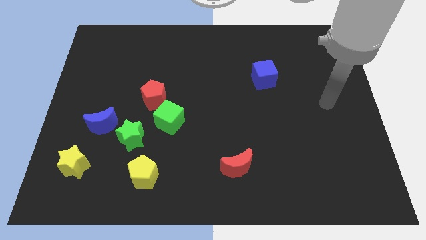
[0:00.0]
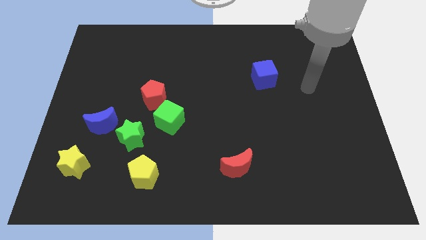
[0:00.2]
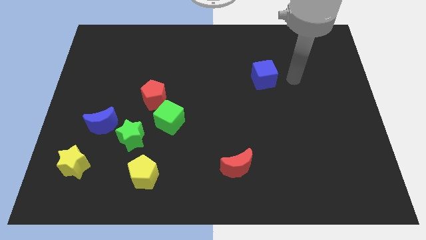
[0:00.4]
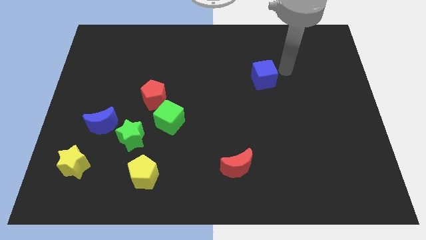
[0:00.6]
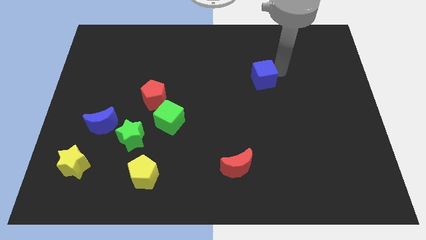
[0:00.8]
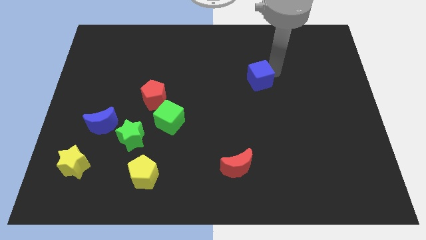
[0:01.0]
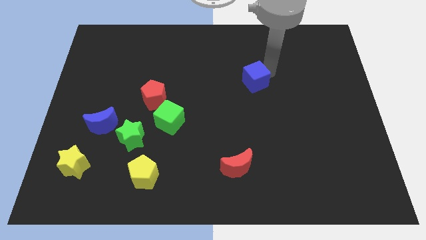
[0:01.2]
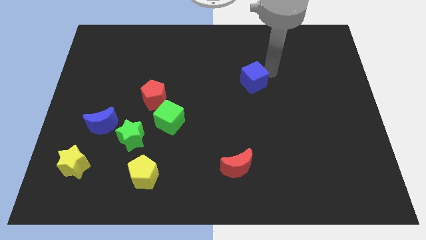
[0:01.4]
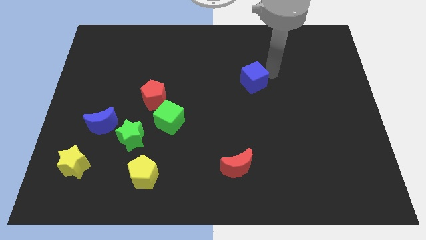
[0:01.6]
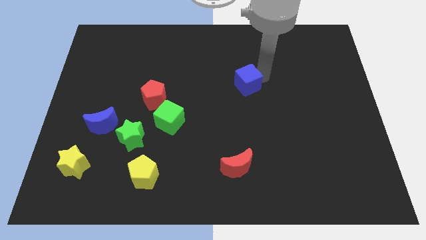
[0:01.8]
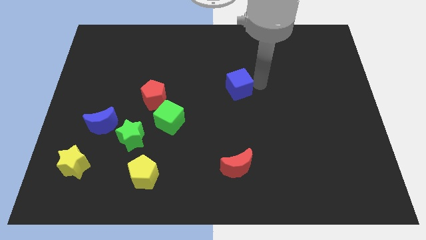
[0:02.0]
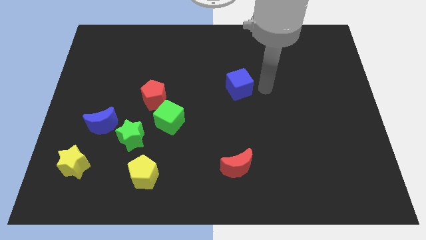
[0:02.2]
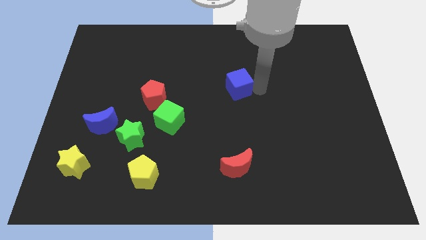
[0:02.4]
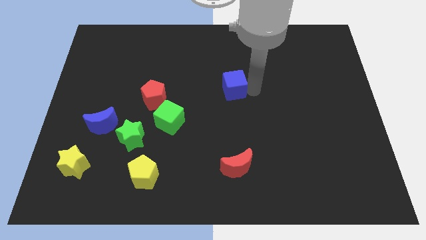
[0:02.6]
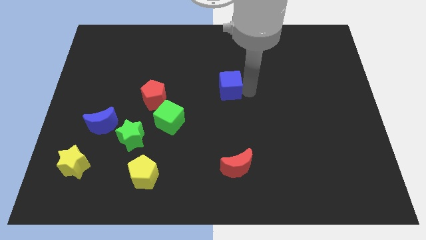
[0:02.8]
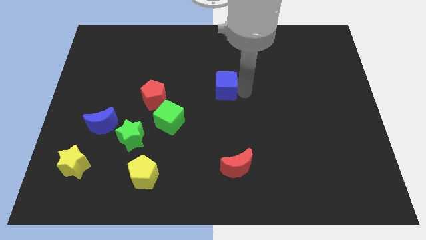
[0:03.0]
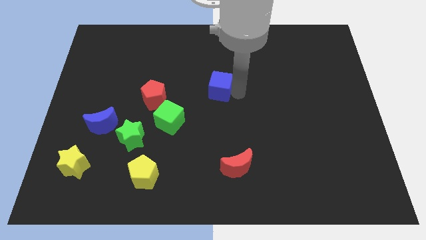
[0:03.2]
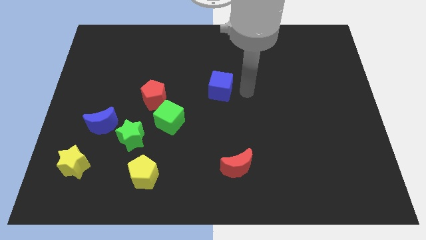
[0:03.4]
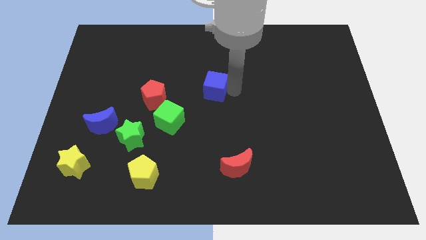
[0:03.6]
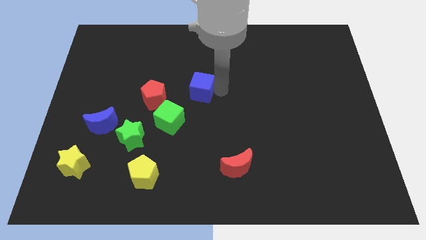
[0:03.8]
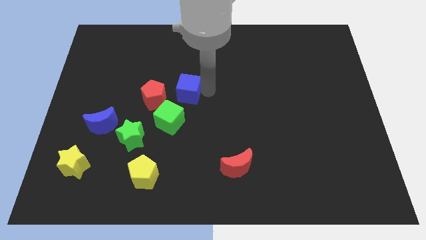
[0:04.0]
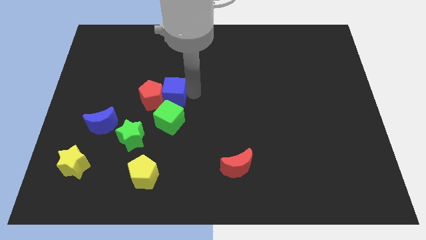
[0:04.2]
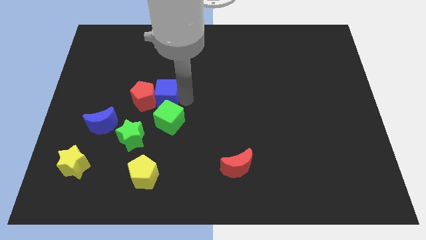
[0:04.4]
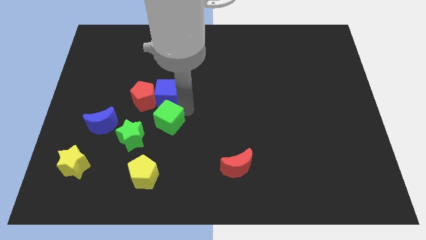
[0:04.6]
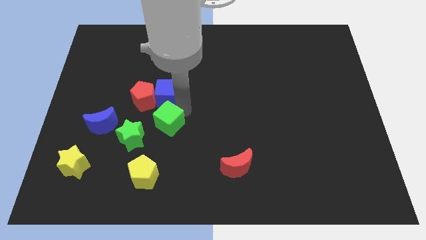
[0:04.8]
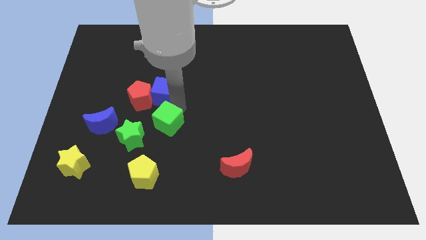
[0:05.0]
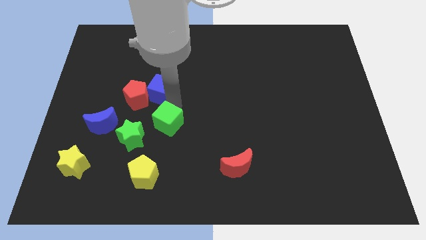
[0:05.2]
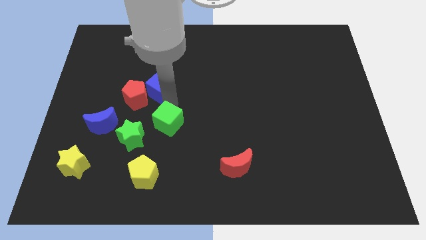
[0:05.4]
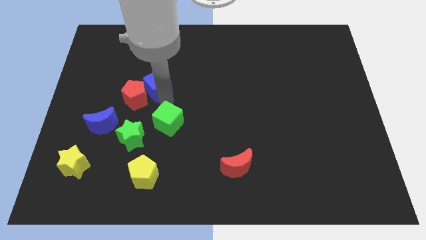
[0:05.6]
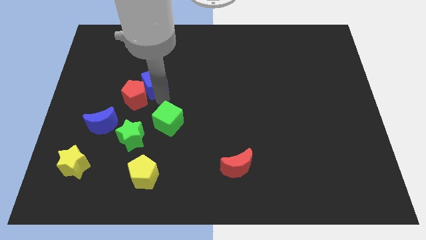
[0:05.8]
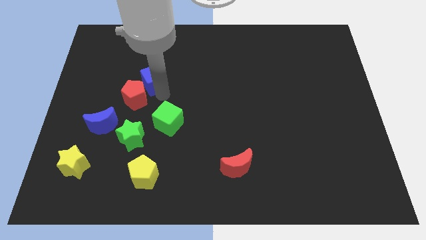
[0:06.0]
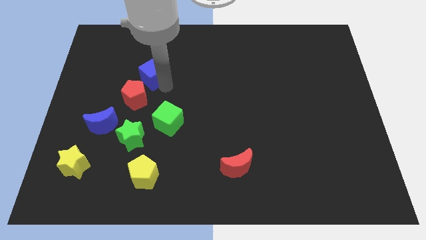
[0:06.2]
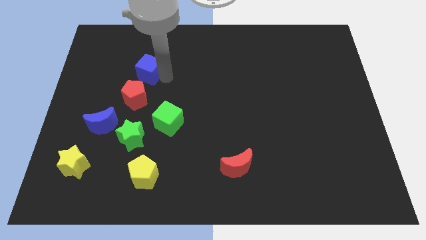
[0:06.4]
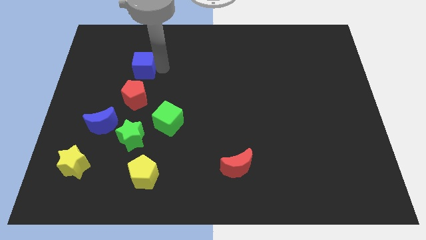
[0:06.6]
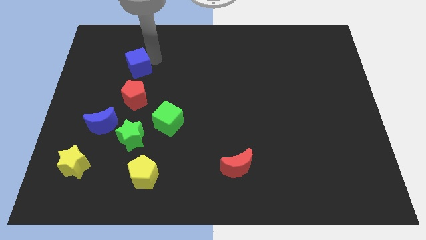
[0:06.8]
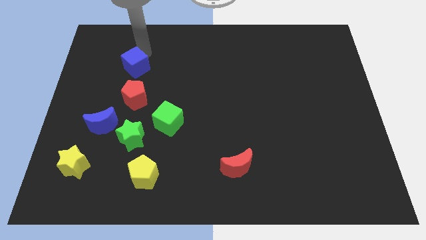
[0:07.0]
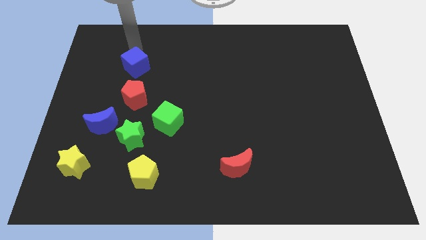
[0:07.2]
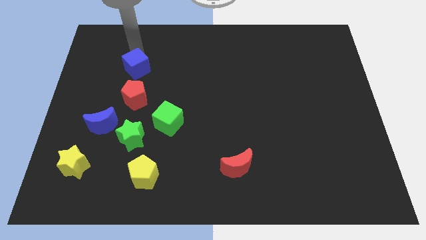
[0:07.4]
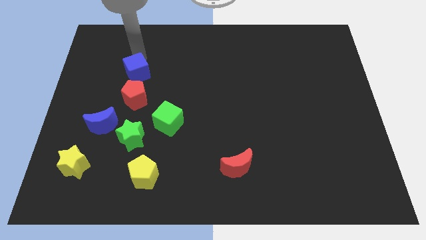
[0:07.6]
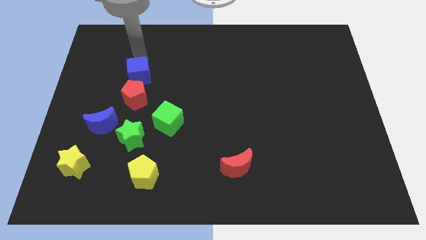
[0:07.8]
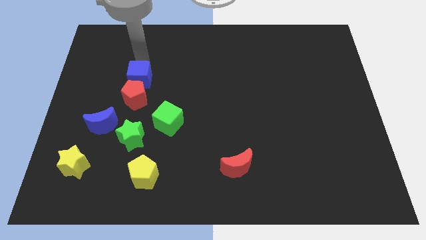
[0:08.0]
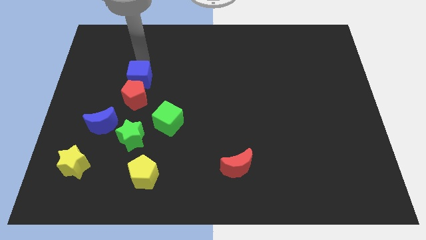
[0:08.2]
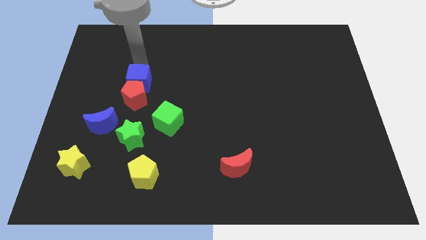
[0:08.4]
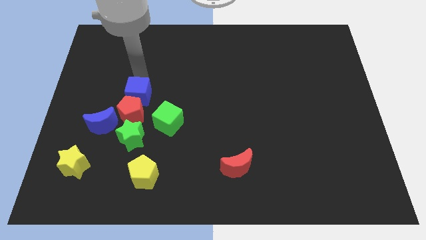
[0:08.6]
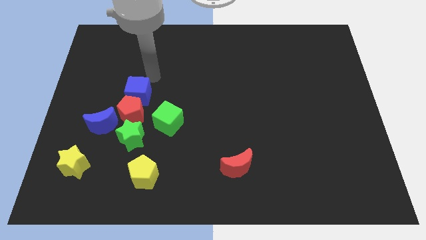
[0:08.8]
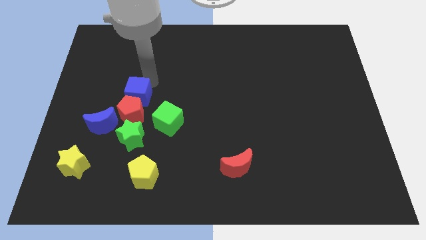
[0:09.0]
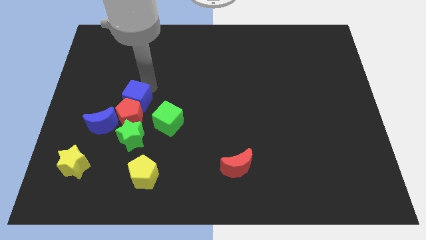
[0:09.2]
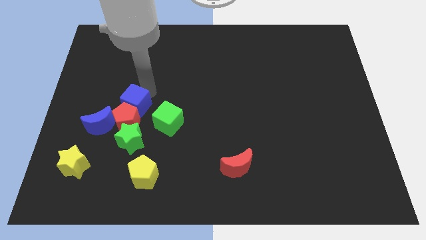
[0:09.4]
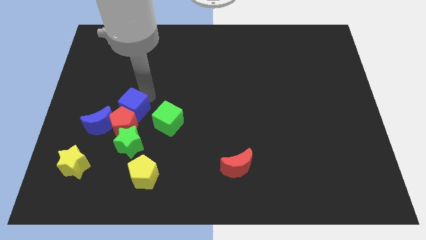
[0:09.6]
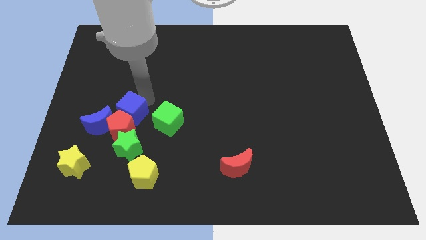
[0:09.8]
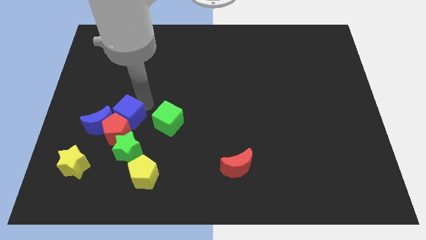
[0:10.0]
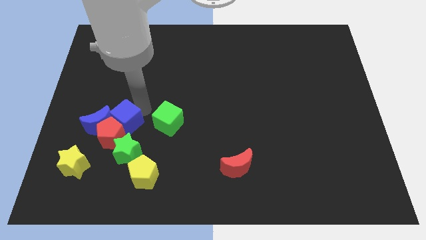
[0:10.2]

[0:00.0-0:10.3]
move the blue cube next to the blue moon

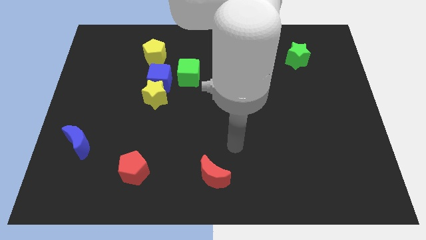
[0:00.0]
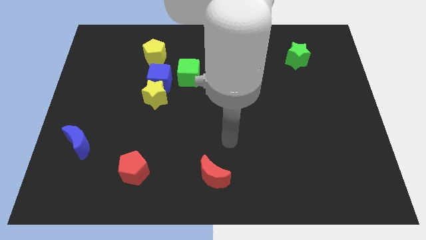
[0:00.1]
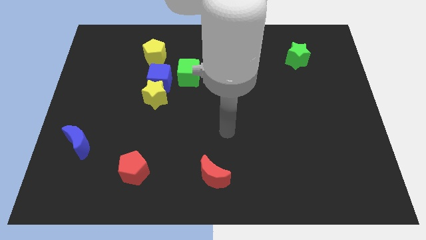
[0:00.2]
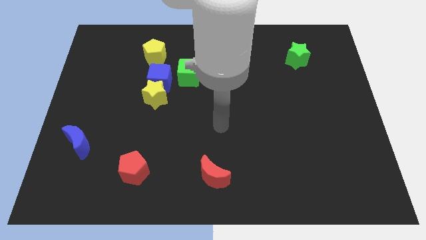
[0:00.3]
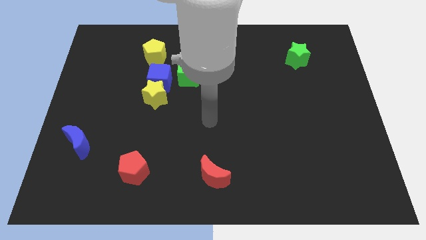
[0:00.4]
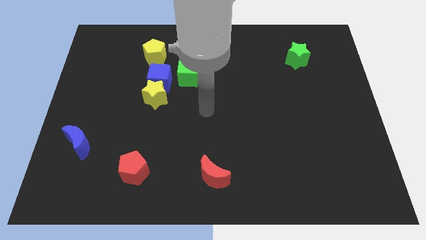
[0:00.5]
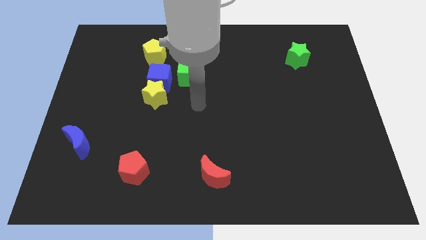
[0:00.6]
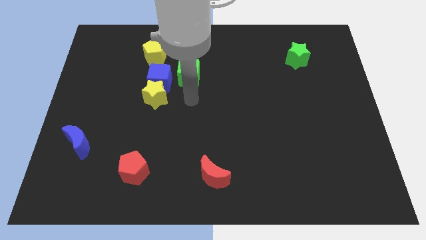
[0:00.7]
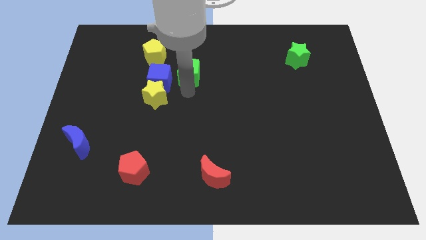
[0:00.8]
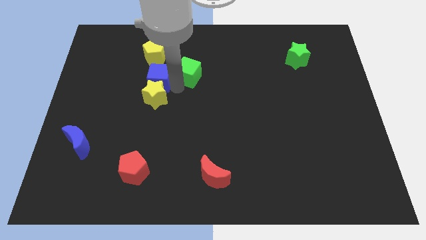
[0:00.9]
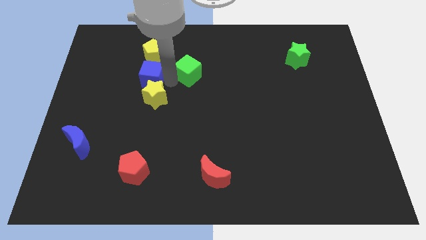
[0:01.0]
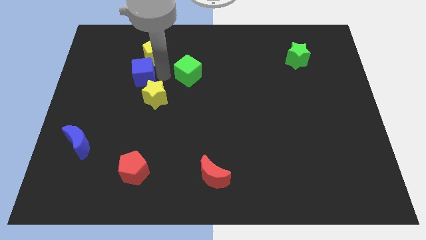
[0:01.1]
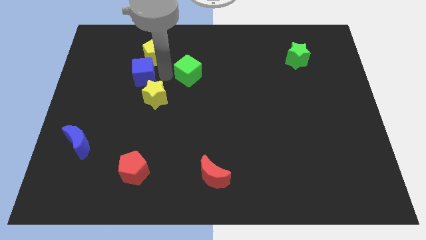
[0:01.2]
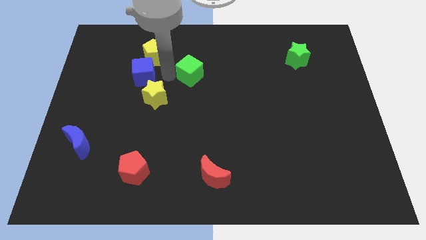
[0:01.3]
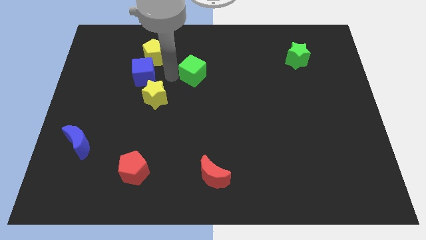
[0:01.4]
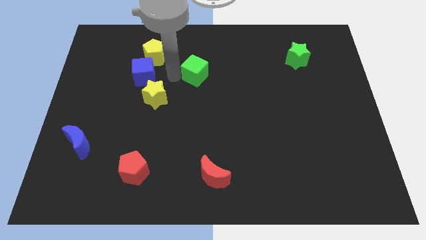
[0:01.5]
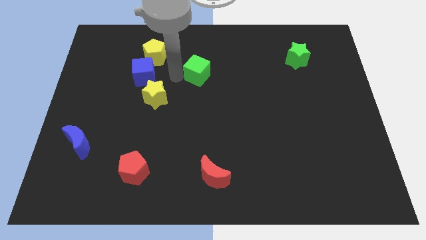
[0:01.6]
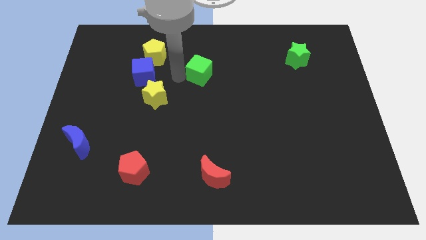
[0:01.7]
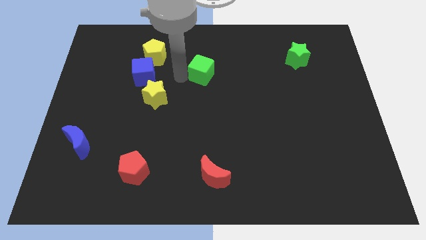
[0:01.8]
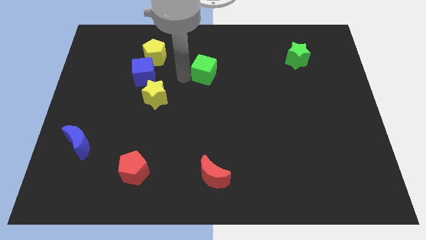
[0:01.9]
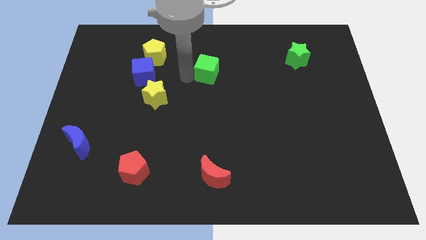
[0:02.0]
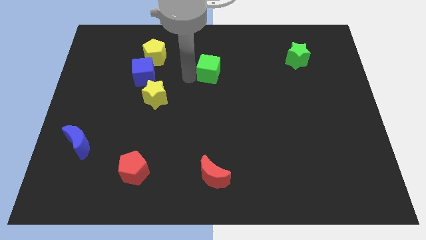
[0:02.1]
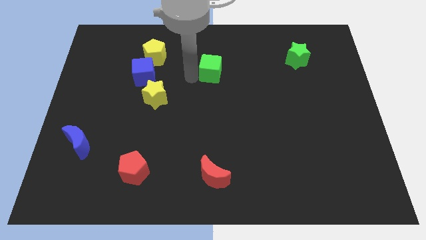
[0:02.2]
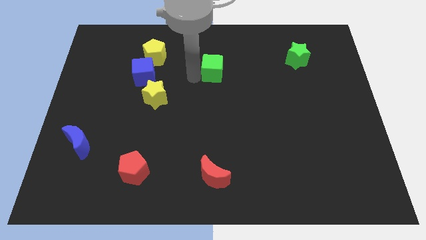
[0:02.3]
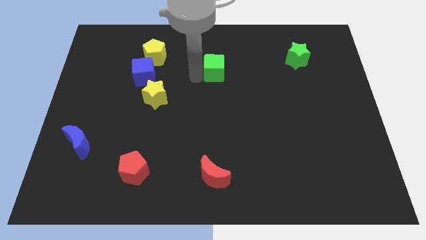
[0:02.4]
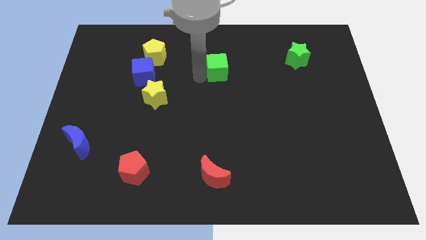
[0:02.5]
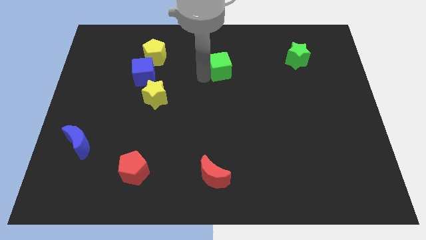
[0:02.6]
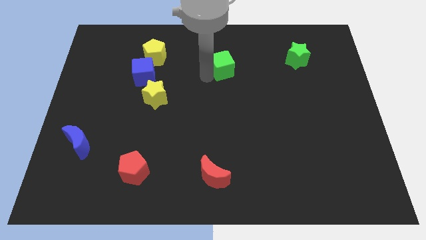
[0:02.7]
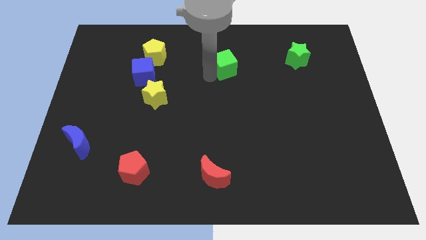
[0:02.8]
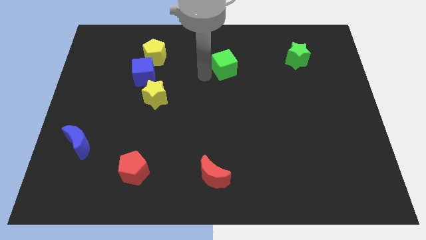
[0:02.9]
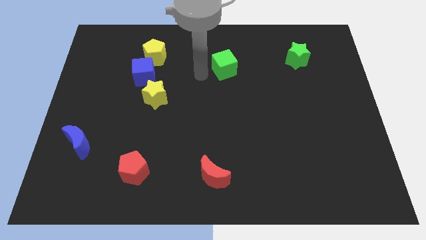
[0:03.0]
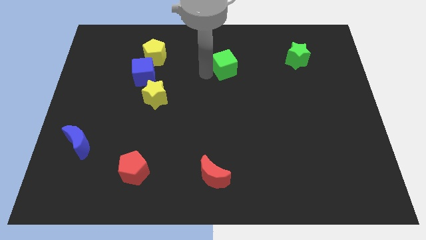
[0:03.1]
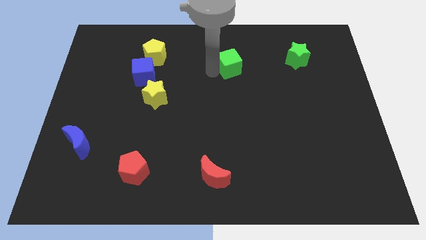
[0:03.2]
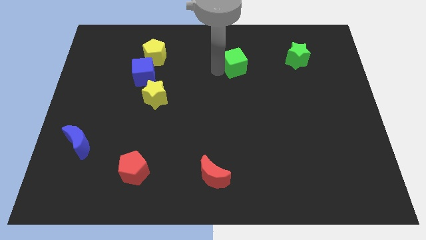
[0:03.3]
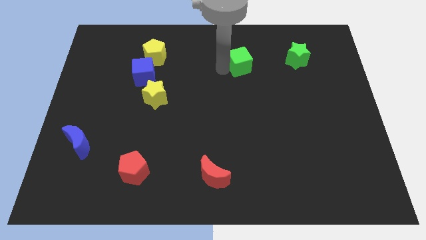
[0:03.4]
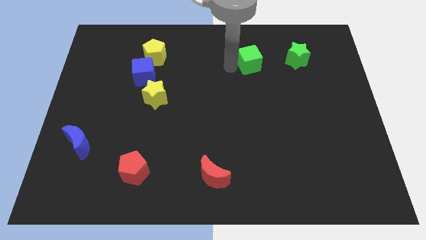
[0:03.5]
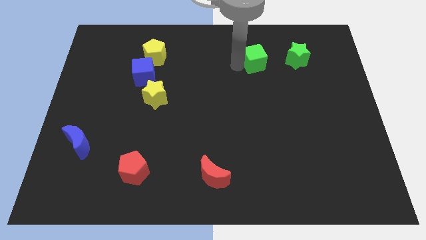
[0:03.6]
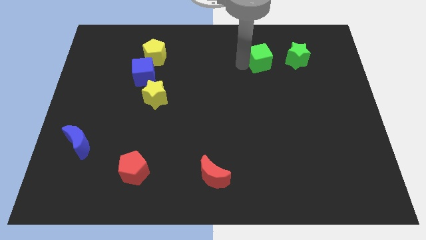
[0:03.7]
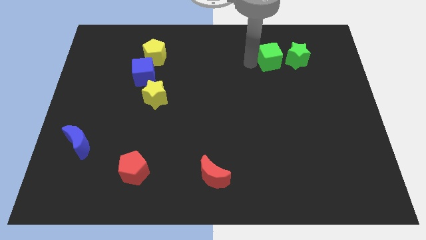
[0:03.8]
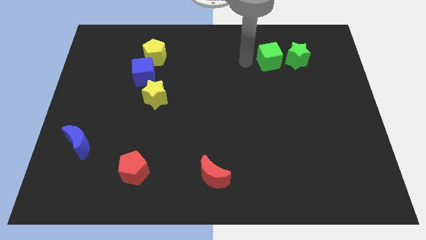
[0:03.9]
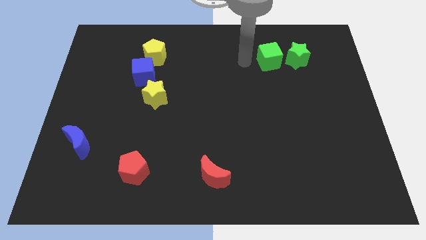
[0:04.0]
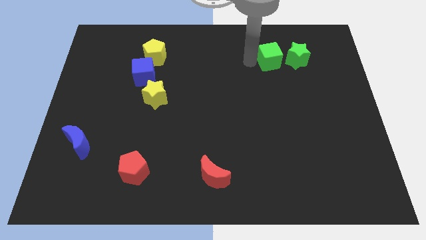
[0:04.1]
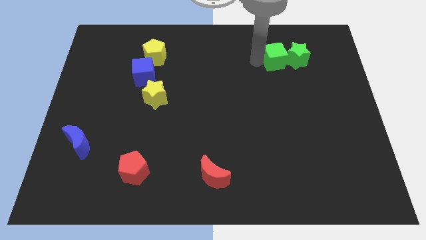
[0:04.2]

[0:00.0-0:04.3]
slide the green cube next to the green star
